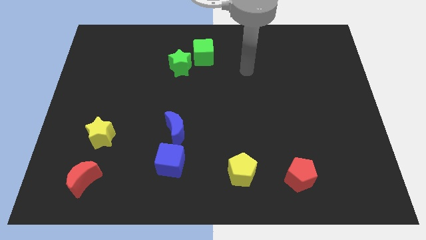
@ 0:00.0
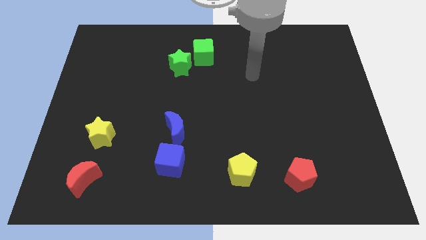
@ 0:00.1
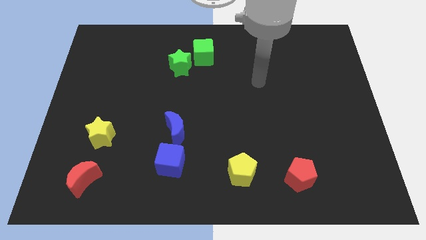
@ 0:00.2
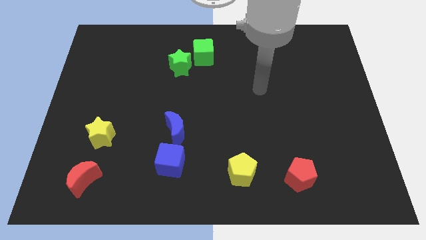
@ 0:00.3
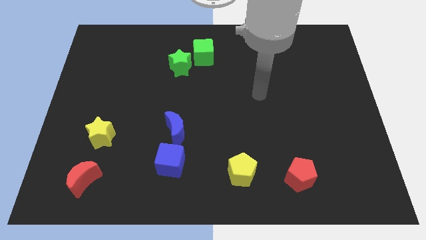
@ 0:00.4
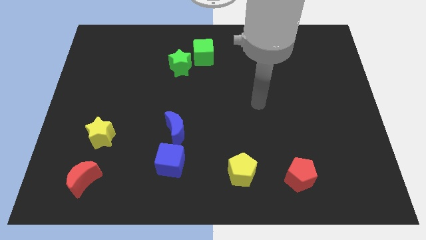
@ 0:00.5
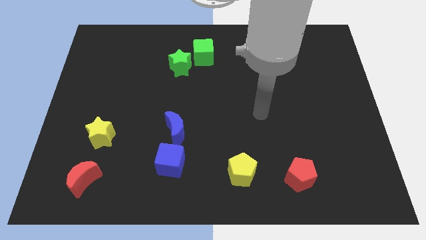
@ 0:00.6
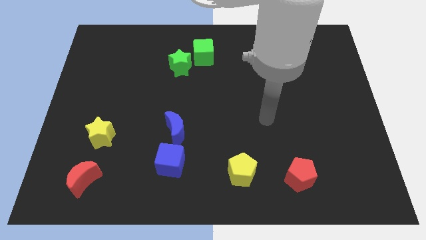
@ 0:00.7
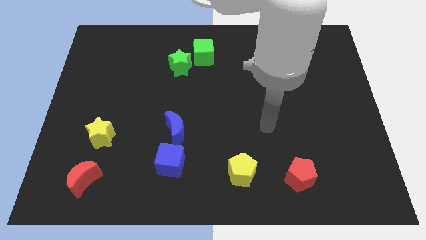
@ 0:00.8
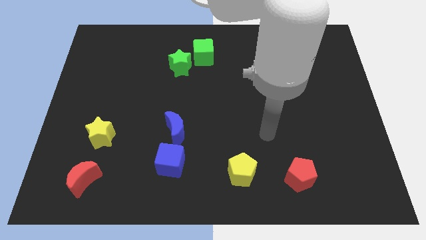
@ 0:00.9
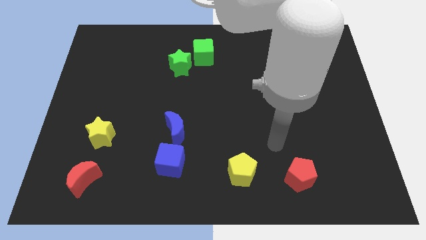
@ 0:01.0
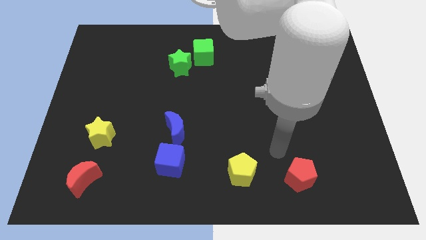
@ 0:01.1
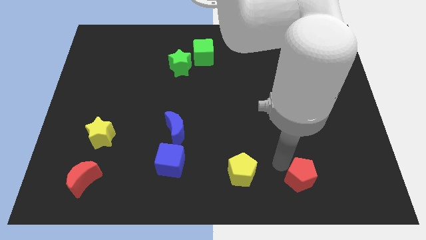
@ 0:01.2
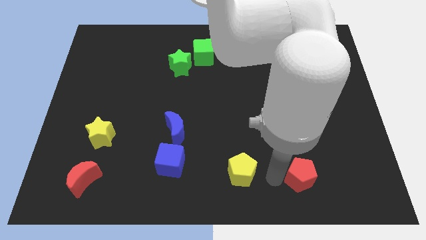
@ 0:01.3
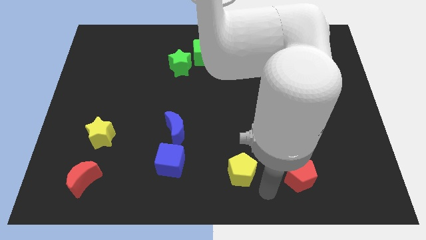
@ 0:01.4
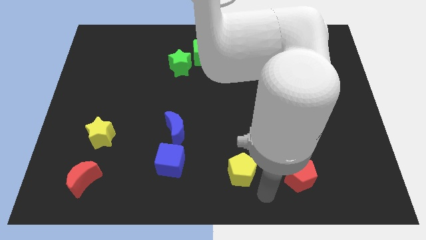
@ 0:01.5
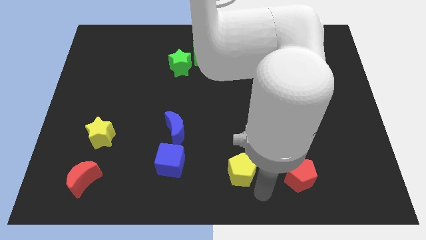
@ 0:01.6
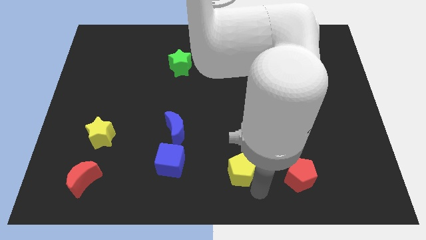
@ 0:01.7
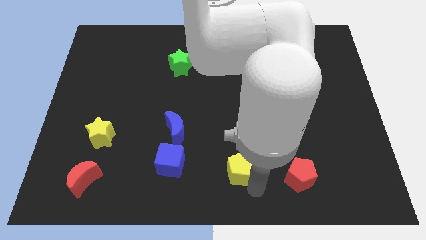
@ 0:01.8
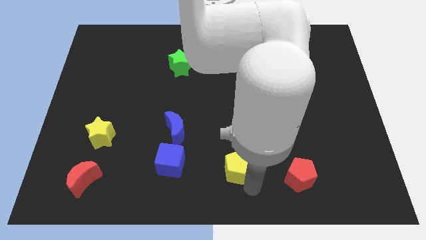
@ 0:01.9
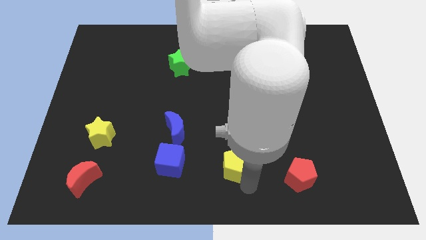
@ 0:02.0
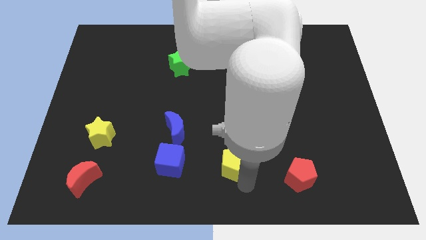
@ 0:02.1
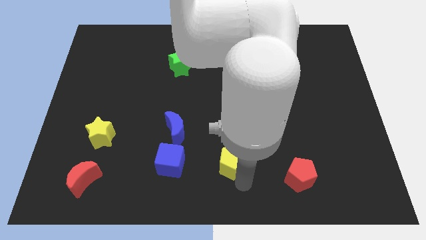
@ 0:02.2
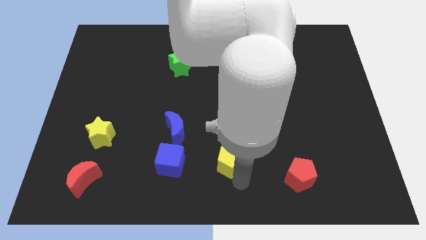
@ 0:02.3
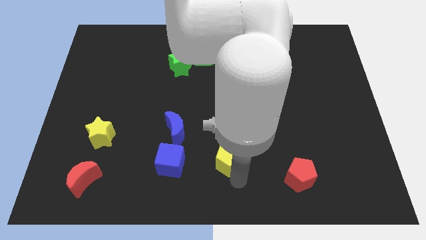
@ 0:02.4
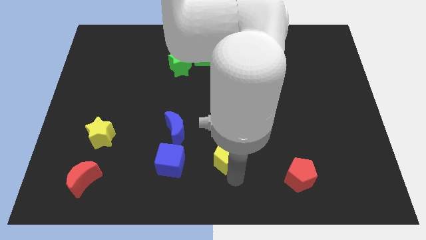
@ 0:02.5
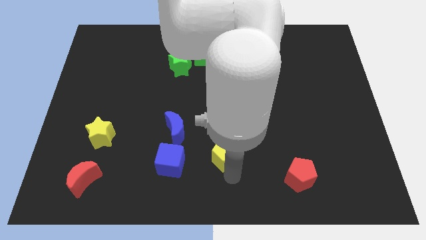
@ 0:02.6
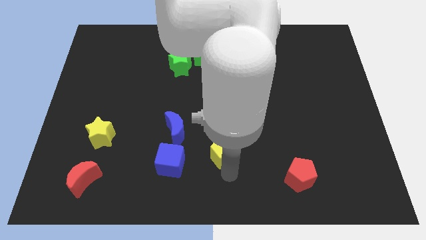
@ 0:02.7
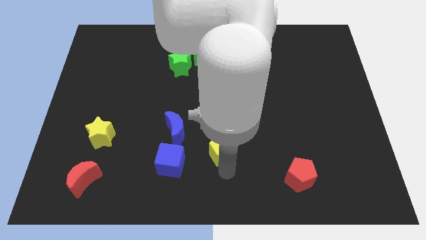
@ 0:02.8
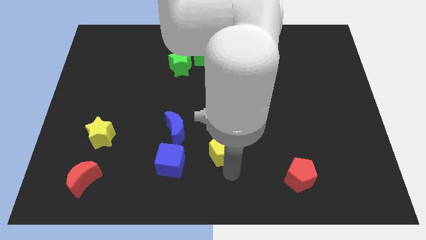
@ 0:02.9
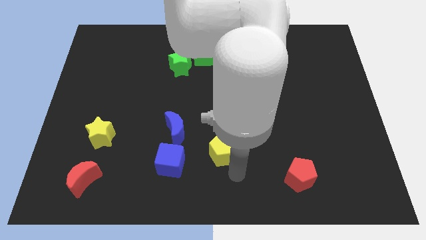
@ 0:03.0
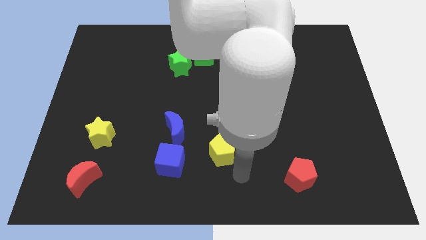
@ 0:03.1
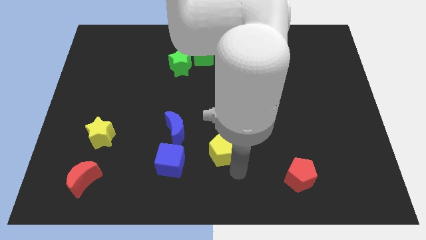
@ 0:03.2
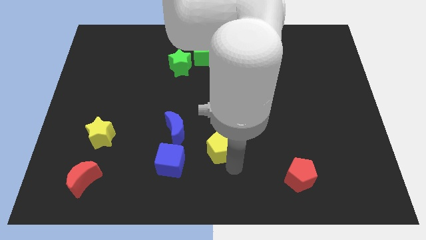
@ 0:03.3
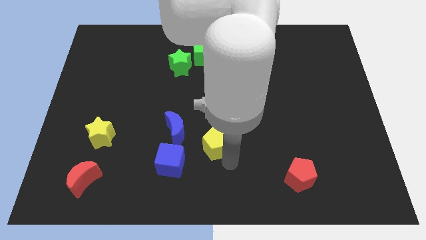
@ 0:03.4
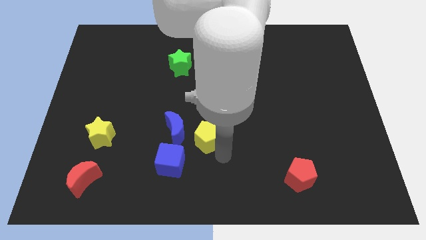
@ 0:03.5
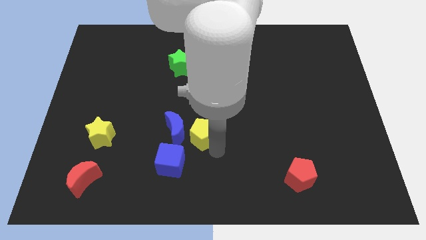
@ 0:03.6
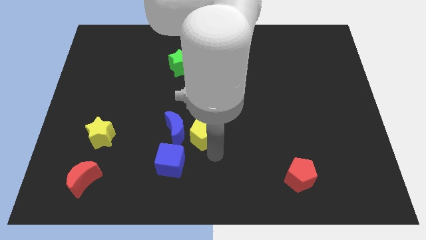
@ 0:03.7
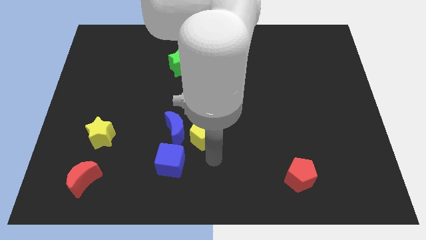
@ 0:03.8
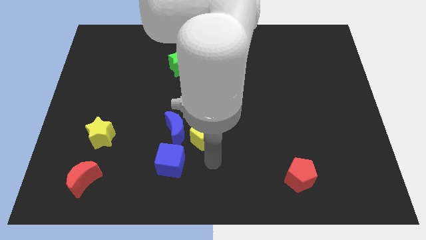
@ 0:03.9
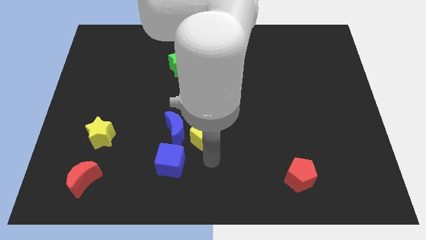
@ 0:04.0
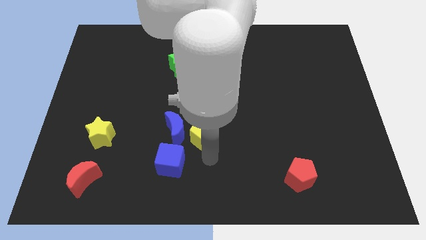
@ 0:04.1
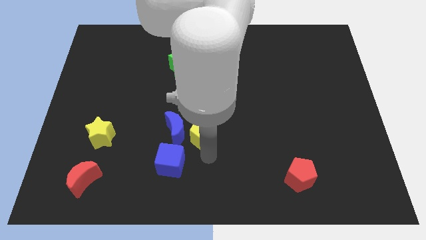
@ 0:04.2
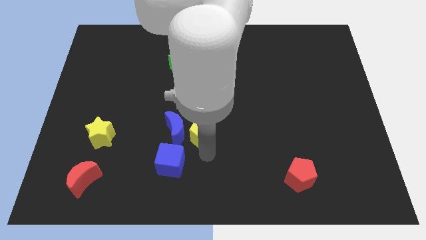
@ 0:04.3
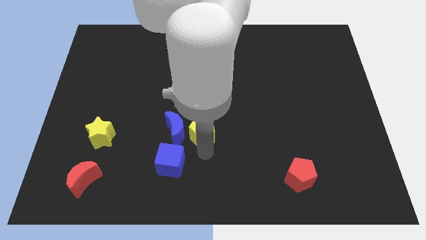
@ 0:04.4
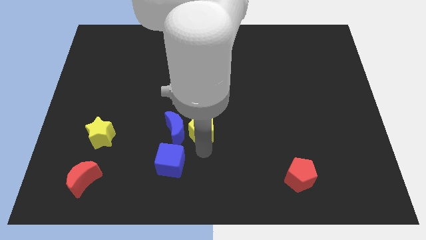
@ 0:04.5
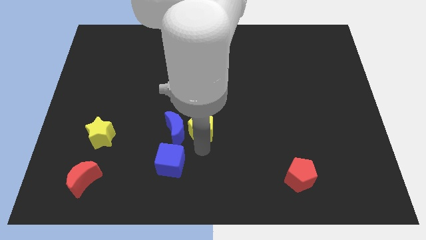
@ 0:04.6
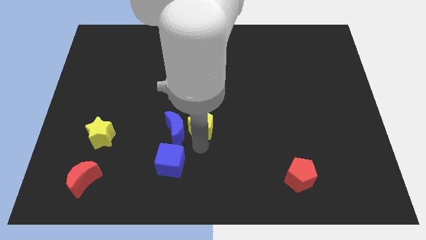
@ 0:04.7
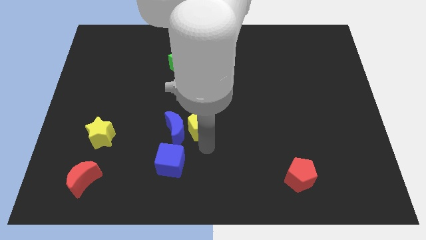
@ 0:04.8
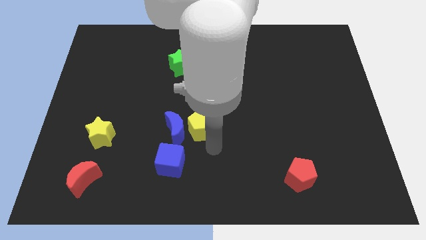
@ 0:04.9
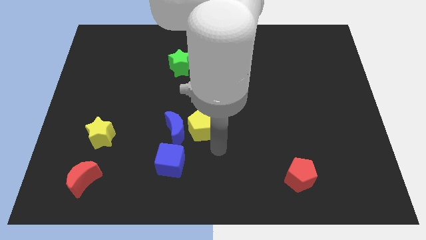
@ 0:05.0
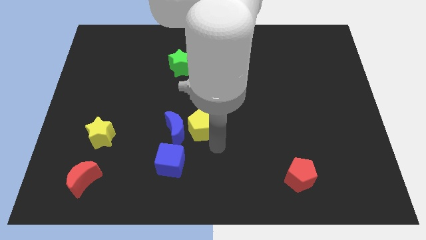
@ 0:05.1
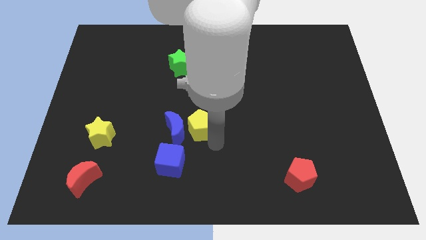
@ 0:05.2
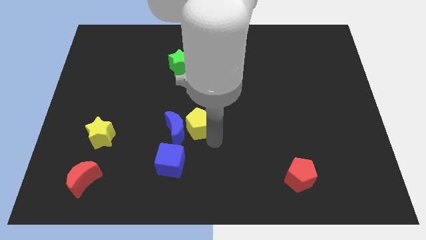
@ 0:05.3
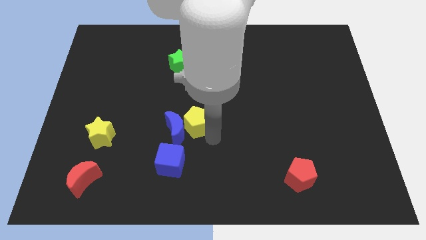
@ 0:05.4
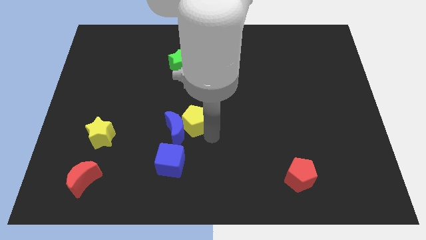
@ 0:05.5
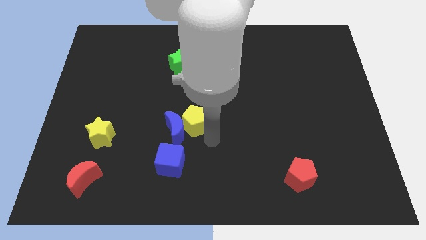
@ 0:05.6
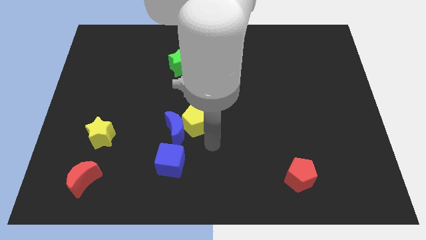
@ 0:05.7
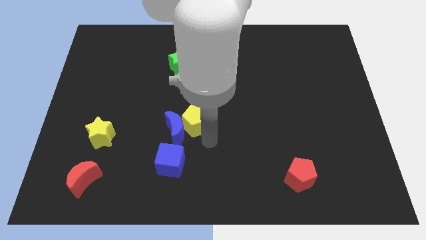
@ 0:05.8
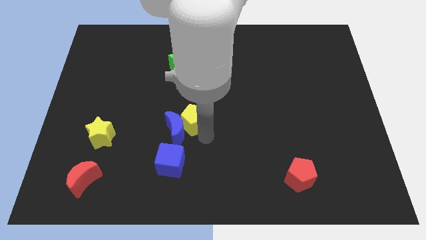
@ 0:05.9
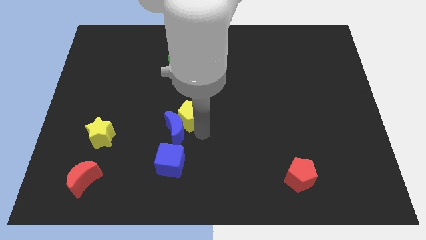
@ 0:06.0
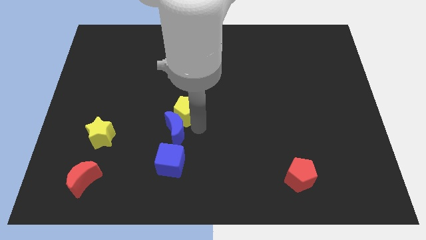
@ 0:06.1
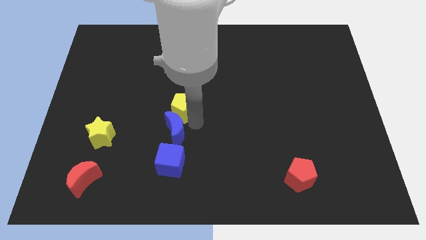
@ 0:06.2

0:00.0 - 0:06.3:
slide the yellow pentagon up and then to the left

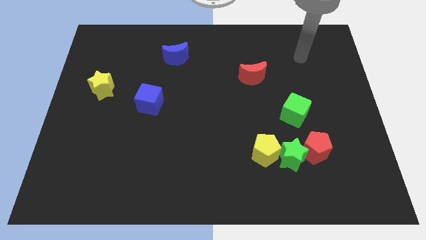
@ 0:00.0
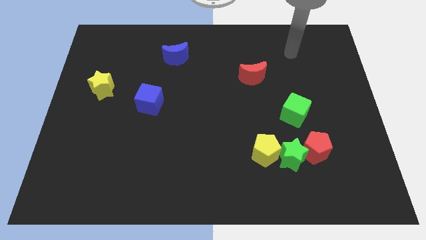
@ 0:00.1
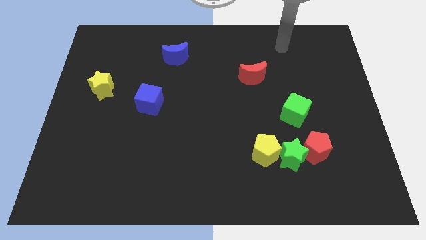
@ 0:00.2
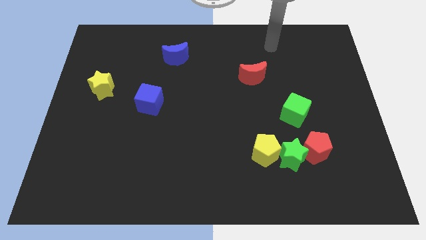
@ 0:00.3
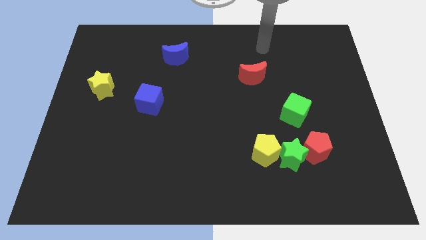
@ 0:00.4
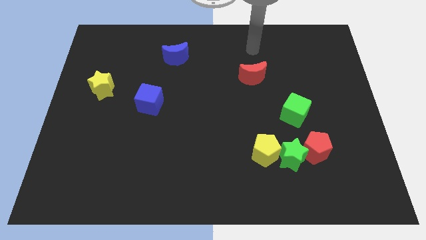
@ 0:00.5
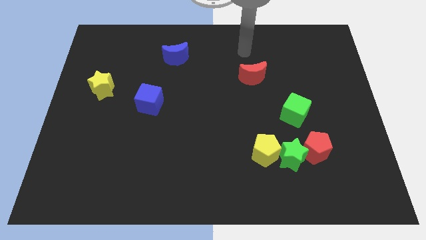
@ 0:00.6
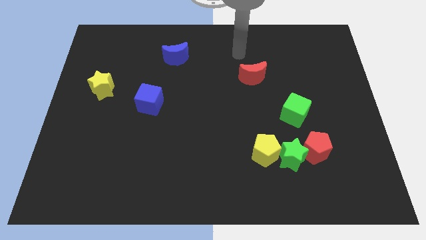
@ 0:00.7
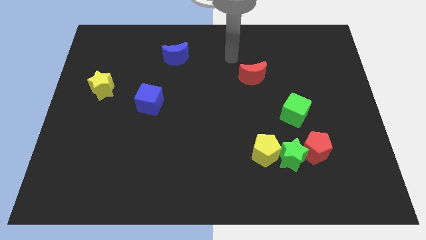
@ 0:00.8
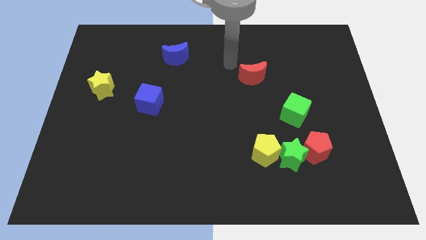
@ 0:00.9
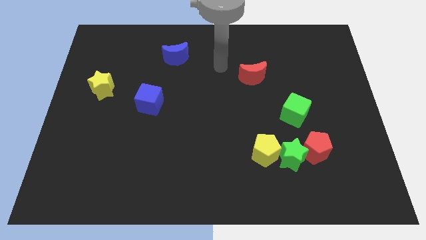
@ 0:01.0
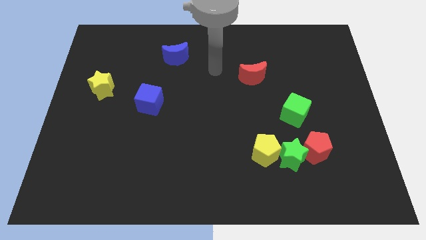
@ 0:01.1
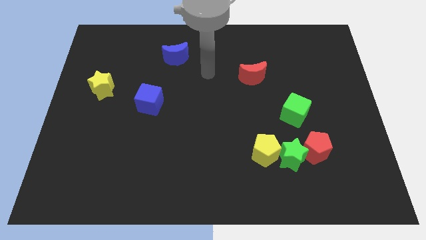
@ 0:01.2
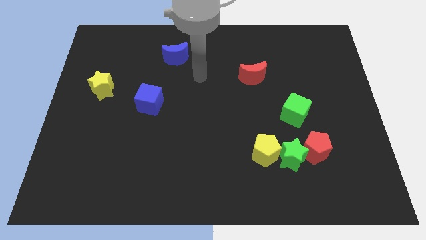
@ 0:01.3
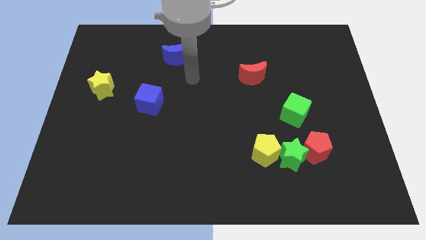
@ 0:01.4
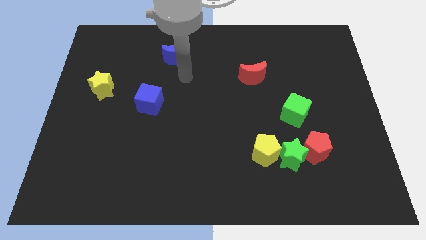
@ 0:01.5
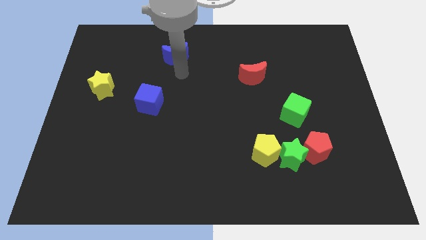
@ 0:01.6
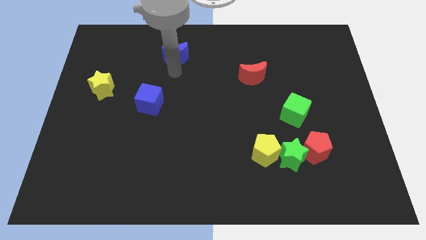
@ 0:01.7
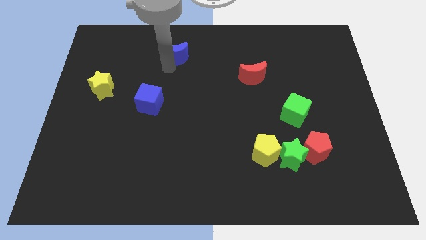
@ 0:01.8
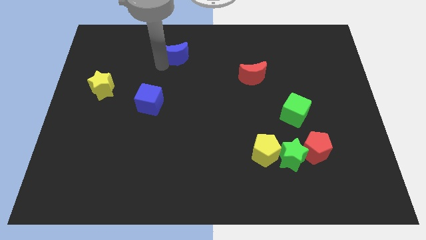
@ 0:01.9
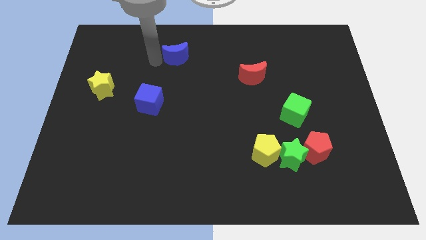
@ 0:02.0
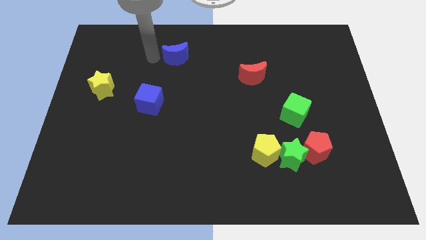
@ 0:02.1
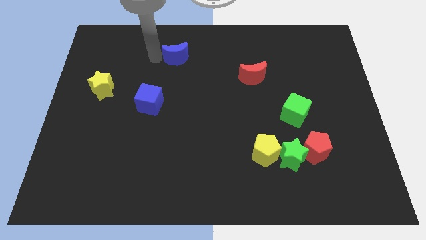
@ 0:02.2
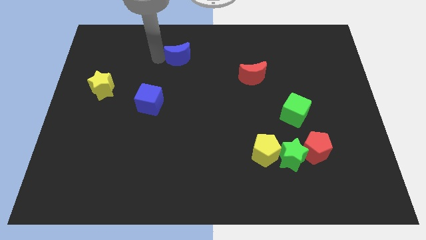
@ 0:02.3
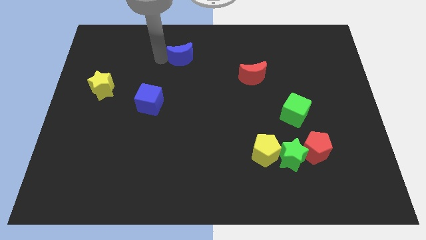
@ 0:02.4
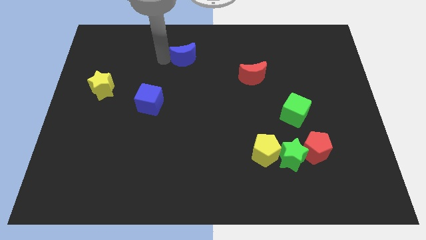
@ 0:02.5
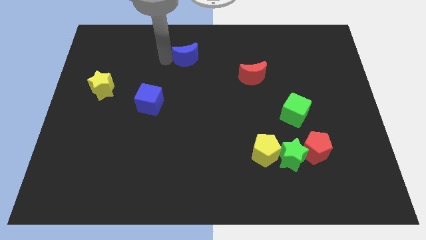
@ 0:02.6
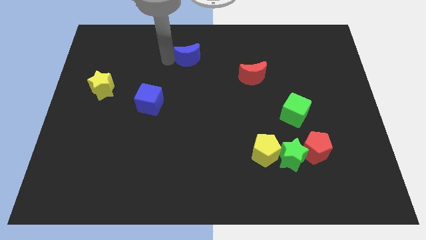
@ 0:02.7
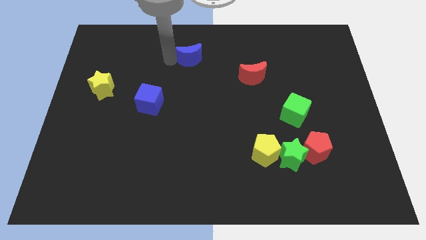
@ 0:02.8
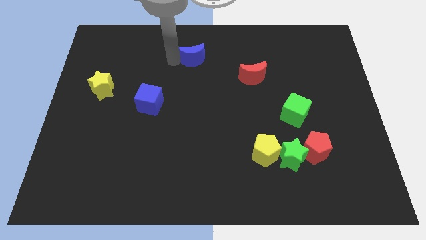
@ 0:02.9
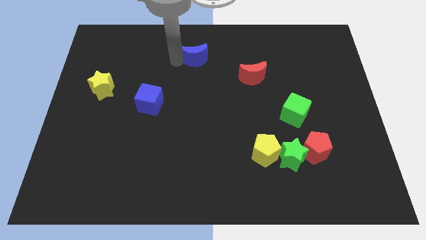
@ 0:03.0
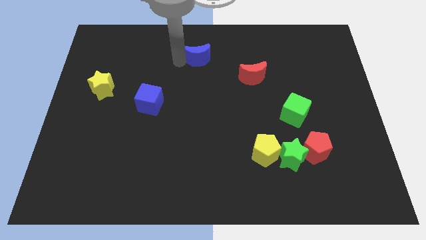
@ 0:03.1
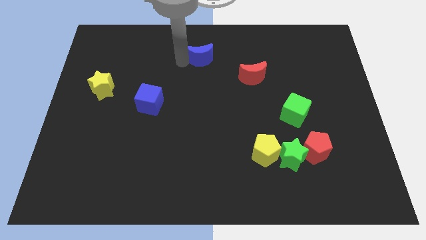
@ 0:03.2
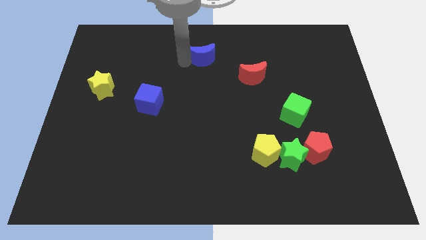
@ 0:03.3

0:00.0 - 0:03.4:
move the blue moon right a little
